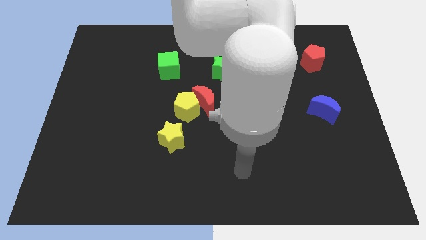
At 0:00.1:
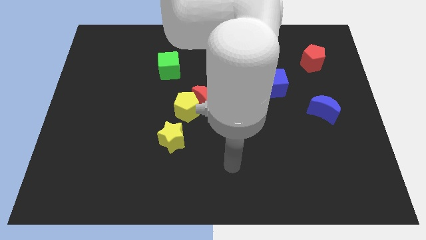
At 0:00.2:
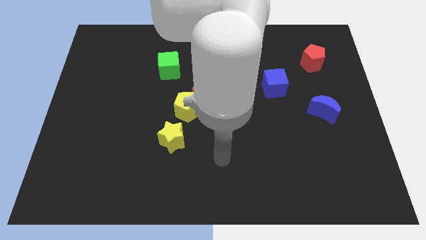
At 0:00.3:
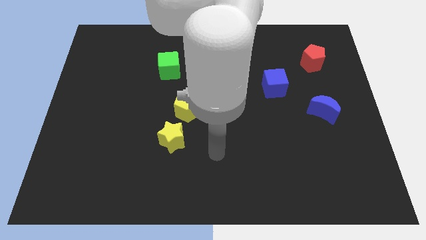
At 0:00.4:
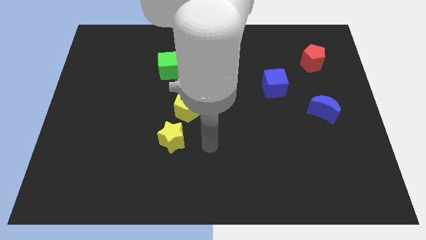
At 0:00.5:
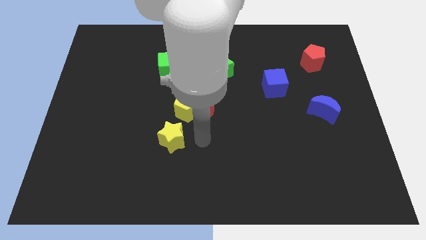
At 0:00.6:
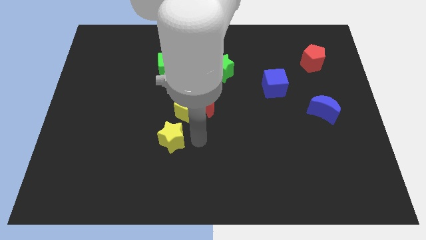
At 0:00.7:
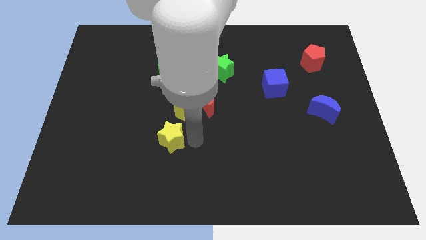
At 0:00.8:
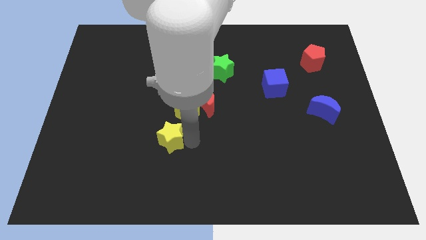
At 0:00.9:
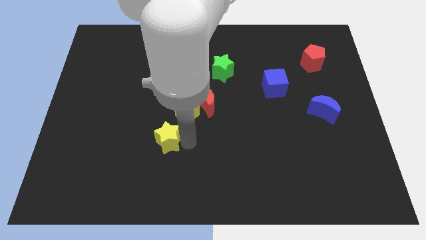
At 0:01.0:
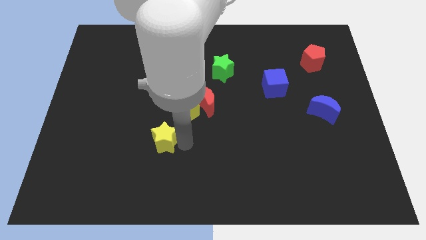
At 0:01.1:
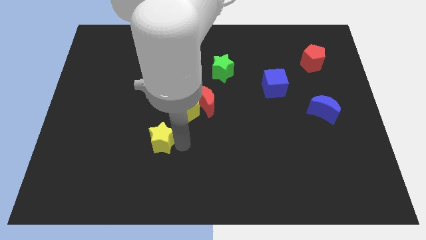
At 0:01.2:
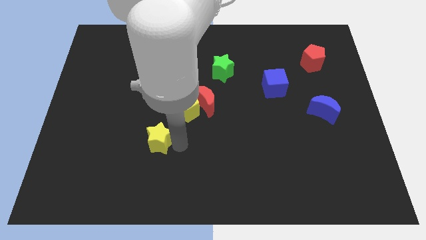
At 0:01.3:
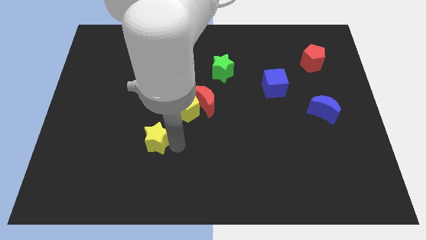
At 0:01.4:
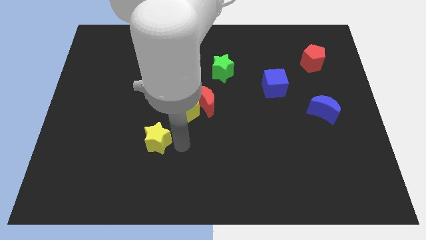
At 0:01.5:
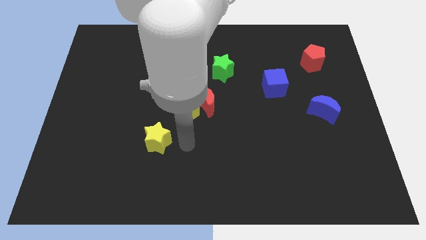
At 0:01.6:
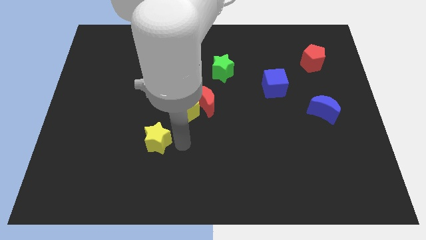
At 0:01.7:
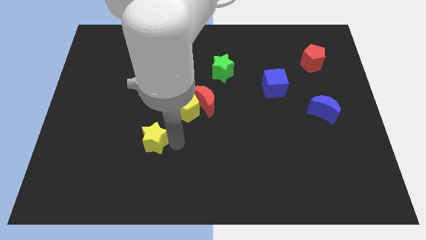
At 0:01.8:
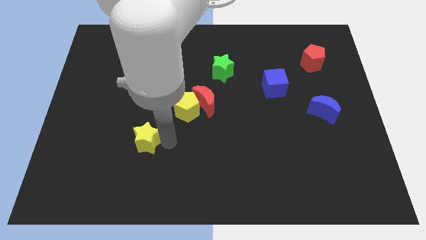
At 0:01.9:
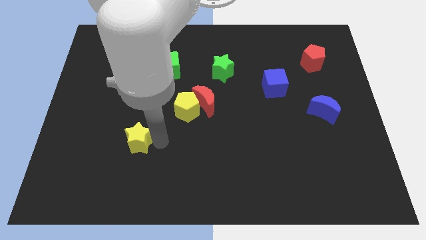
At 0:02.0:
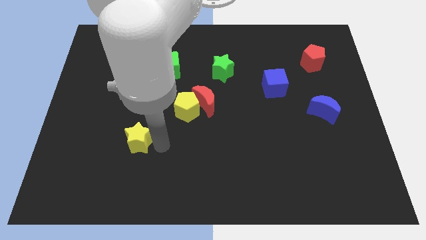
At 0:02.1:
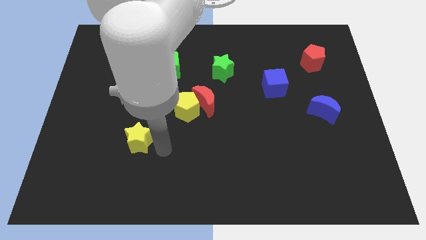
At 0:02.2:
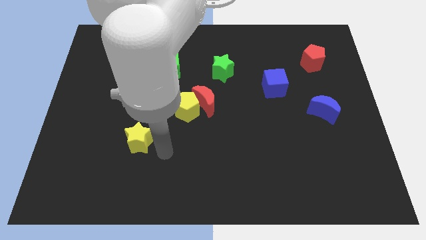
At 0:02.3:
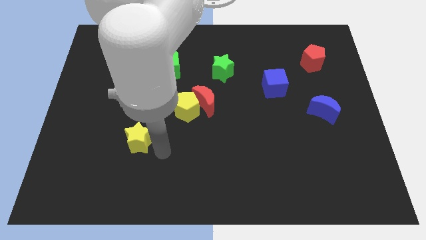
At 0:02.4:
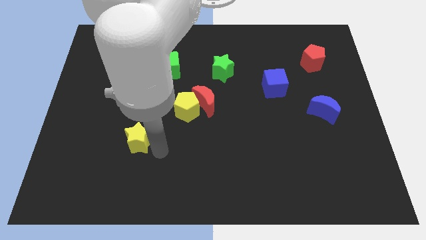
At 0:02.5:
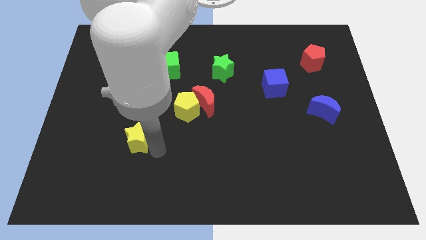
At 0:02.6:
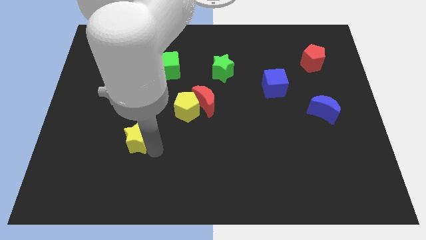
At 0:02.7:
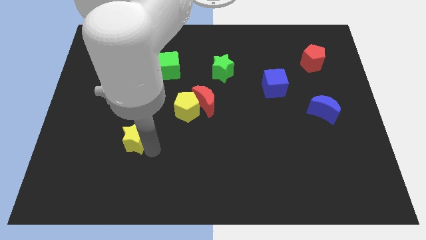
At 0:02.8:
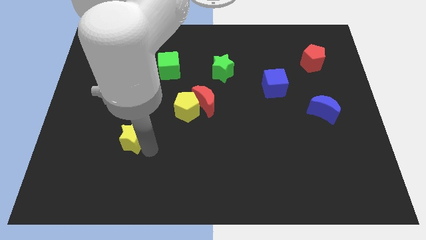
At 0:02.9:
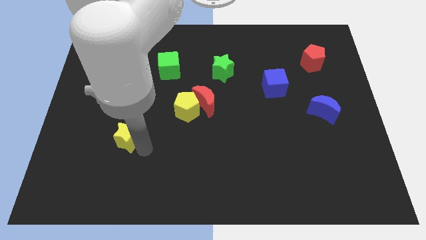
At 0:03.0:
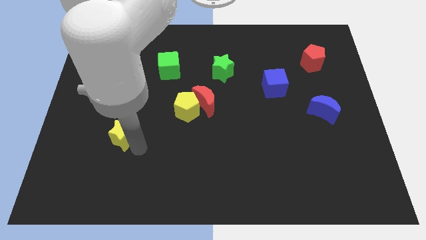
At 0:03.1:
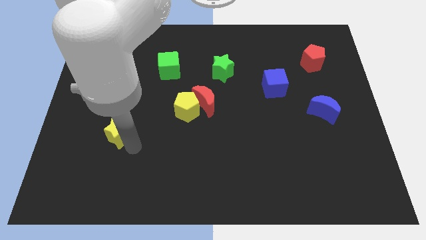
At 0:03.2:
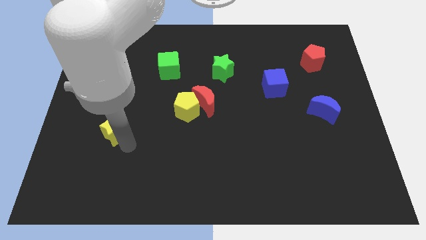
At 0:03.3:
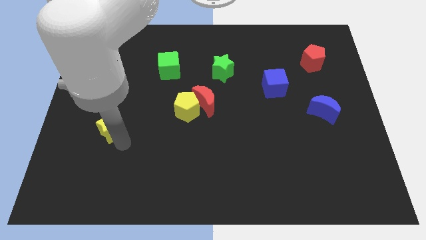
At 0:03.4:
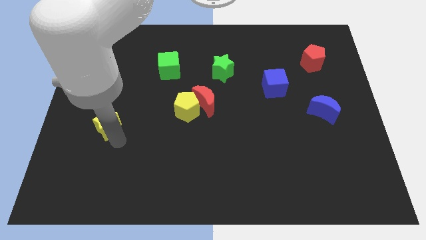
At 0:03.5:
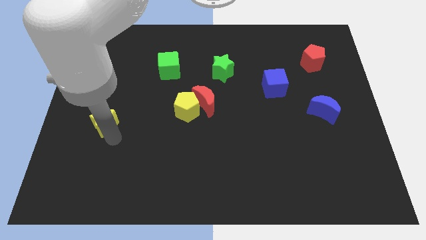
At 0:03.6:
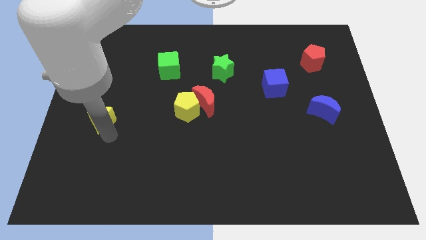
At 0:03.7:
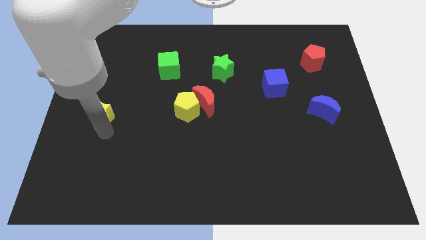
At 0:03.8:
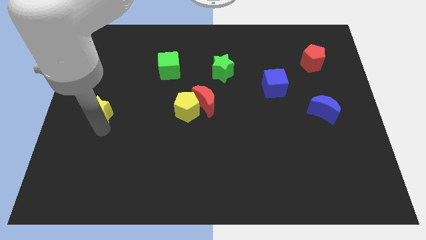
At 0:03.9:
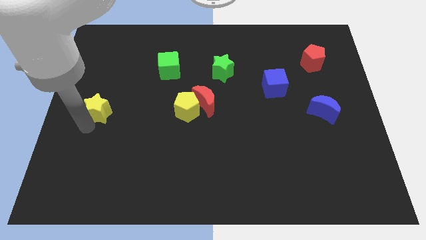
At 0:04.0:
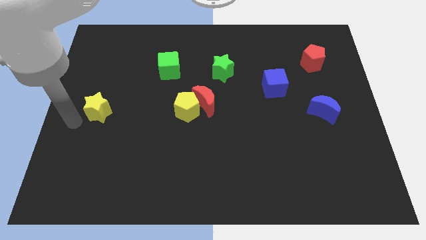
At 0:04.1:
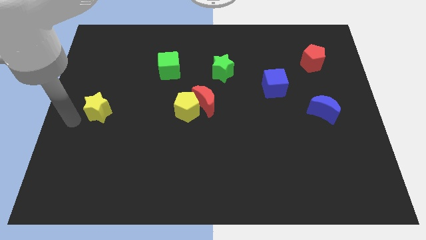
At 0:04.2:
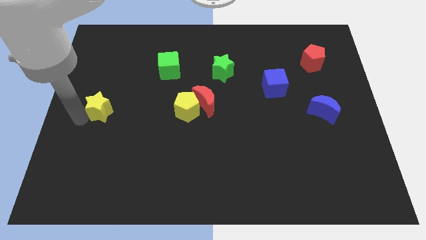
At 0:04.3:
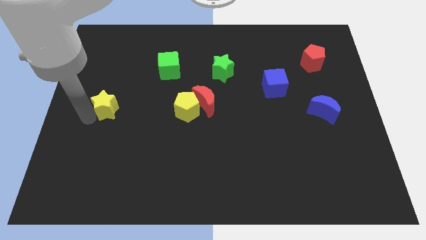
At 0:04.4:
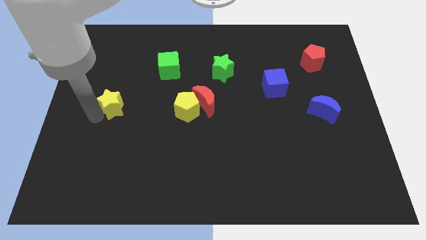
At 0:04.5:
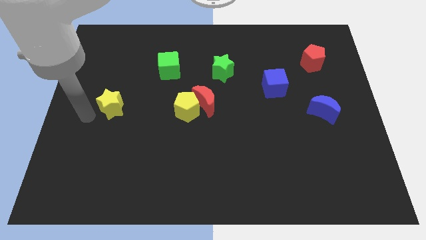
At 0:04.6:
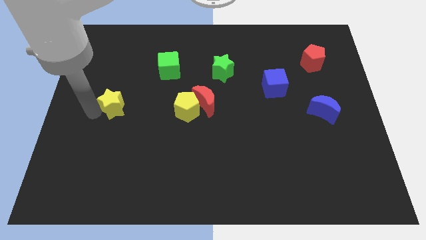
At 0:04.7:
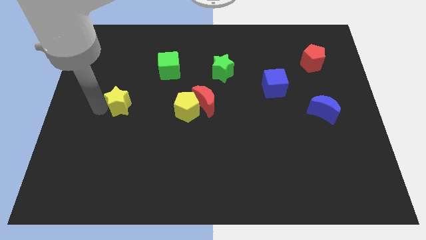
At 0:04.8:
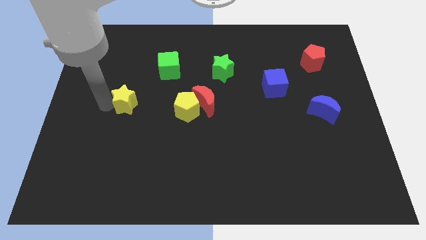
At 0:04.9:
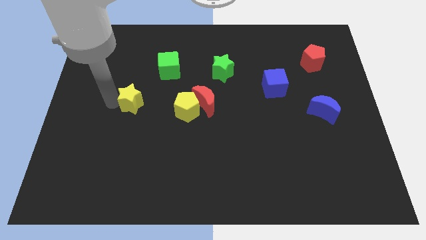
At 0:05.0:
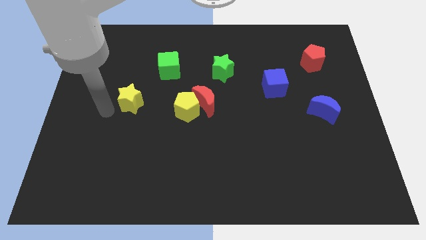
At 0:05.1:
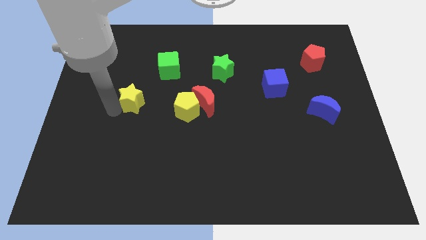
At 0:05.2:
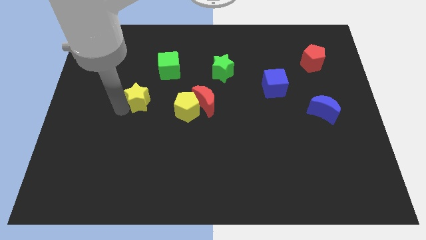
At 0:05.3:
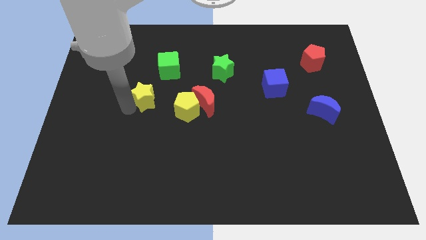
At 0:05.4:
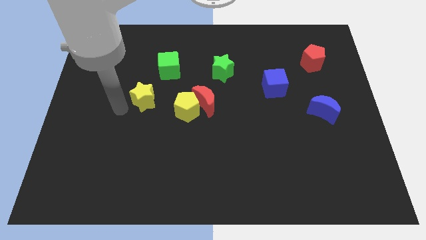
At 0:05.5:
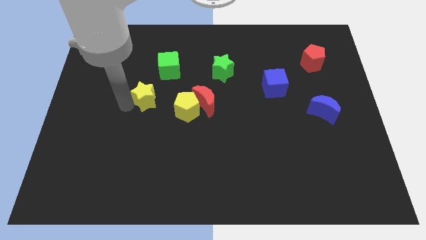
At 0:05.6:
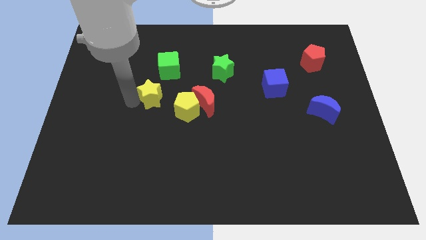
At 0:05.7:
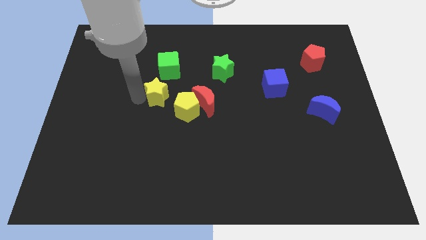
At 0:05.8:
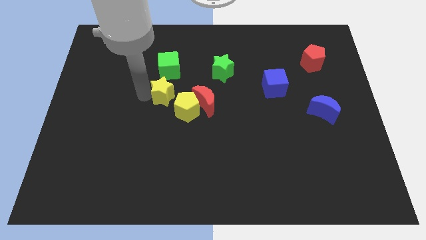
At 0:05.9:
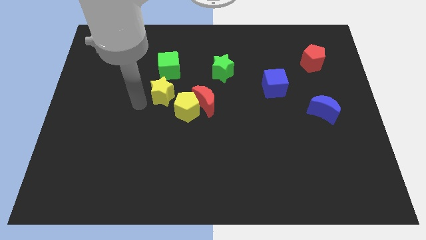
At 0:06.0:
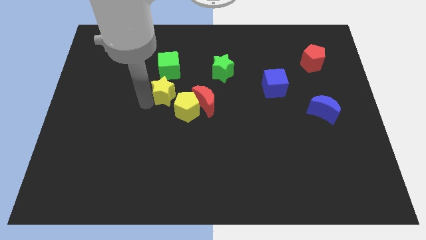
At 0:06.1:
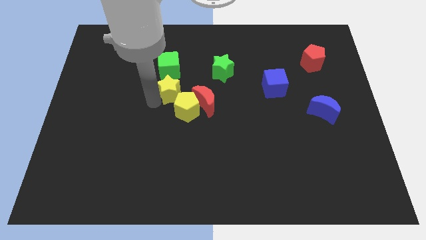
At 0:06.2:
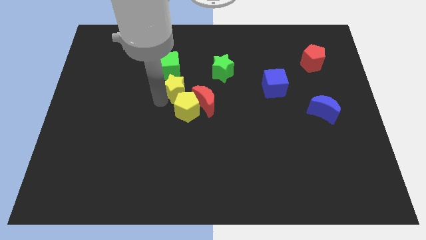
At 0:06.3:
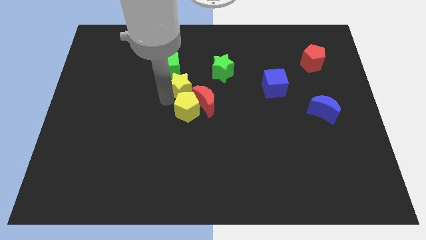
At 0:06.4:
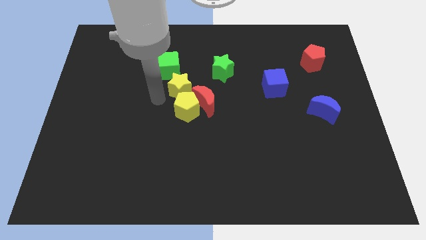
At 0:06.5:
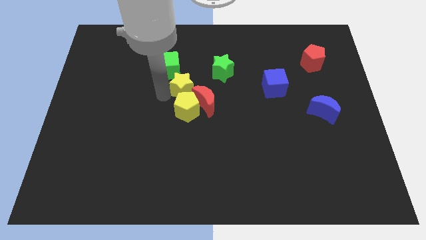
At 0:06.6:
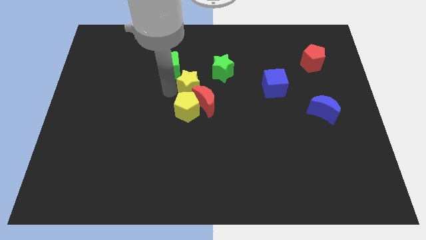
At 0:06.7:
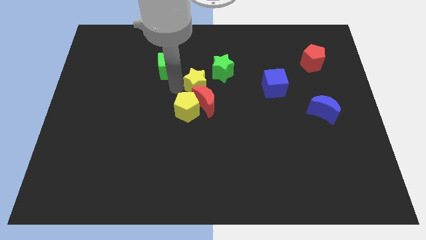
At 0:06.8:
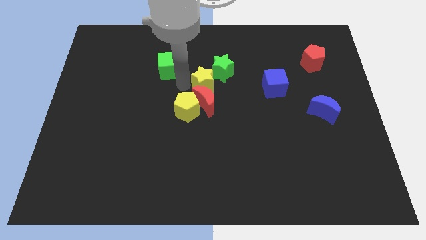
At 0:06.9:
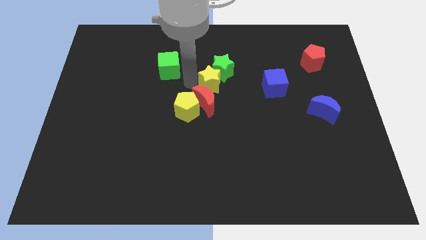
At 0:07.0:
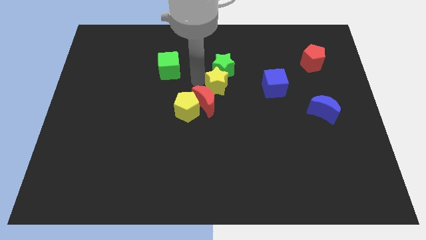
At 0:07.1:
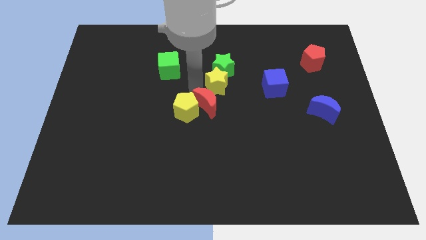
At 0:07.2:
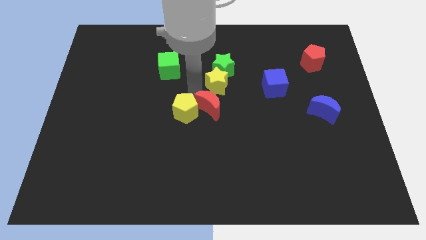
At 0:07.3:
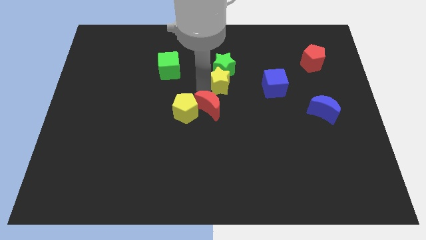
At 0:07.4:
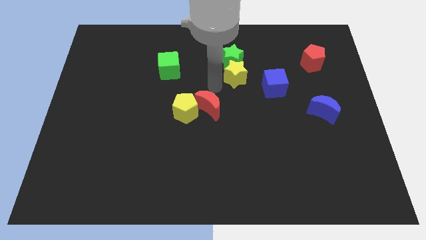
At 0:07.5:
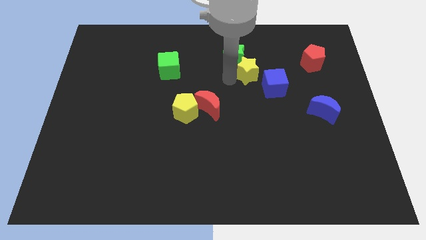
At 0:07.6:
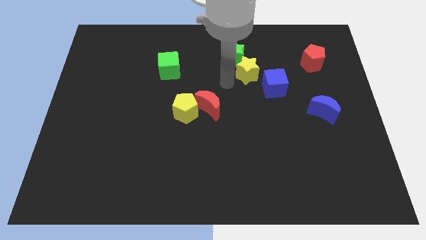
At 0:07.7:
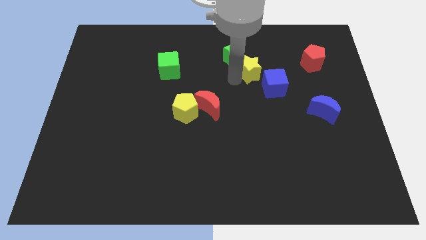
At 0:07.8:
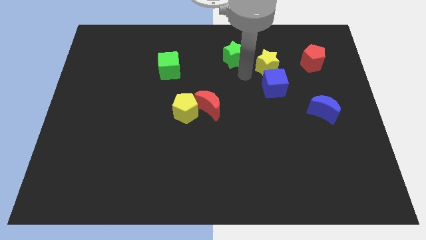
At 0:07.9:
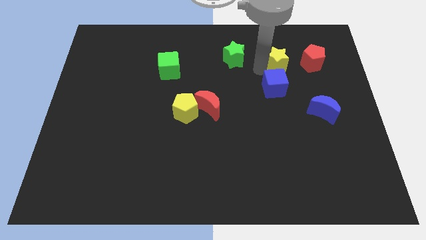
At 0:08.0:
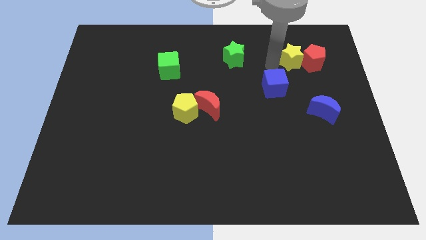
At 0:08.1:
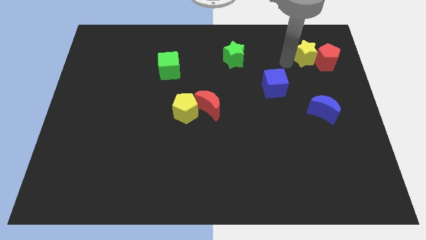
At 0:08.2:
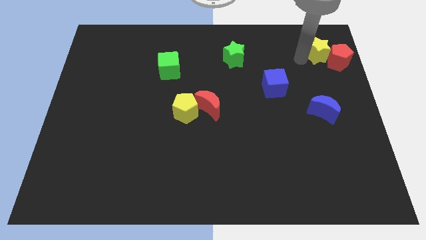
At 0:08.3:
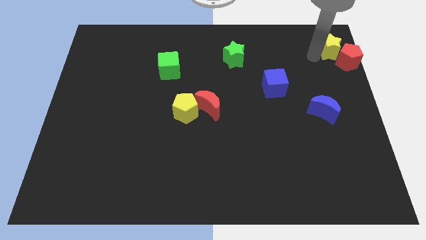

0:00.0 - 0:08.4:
slide the yellow star to the top right of the board
